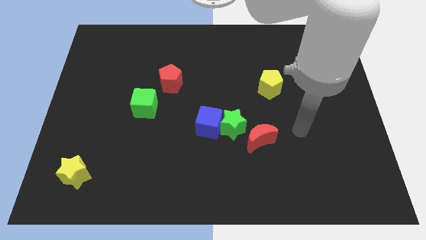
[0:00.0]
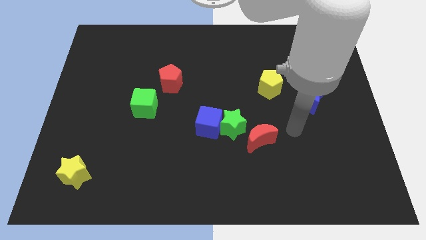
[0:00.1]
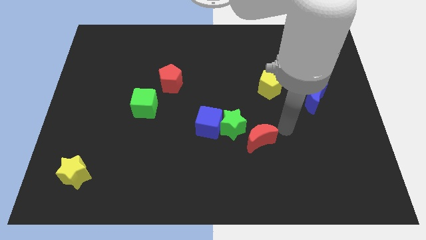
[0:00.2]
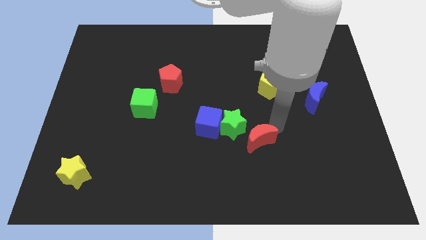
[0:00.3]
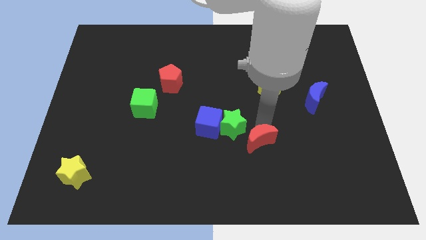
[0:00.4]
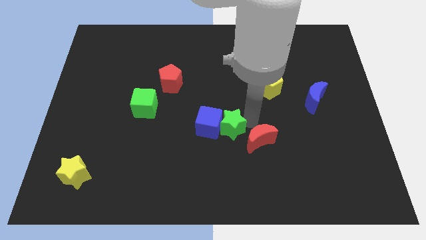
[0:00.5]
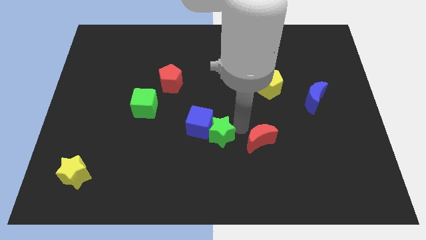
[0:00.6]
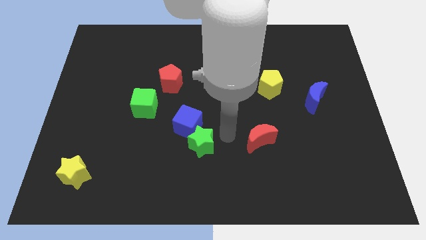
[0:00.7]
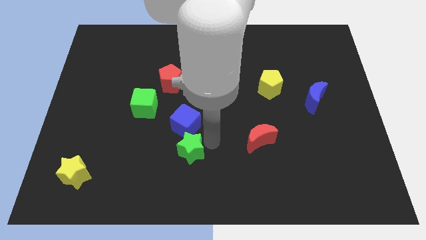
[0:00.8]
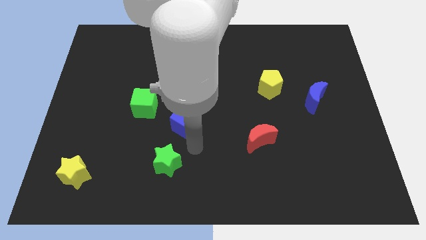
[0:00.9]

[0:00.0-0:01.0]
pull the blue cube apart from the green star

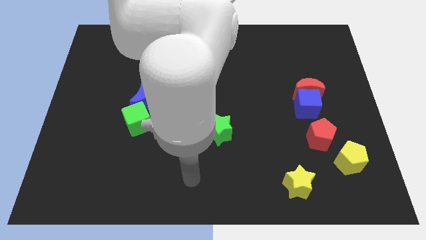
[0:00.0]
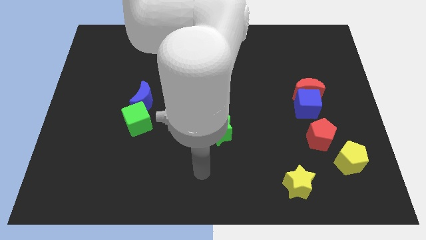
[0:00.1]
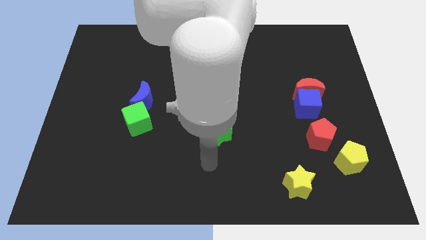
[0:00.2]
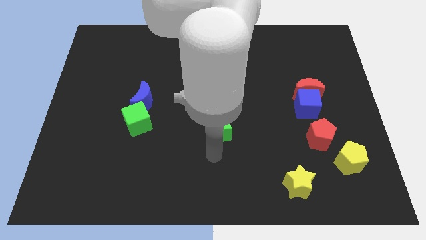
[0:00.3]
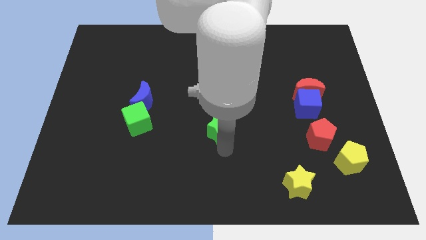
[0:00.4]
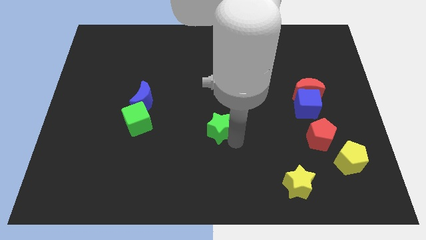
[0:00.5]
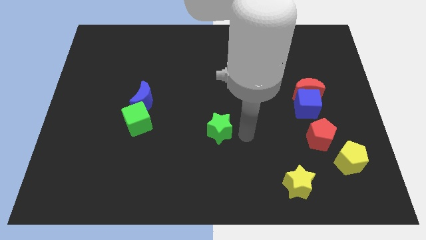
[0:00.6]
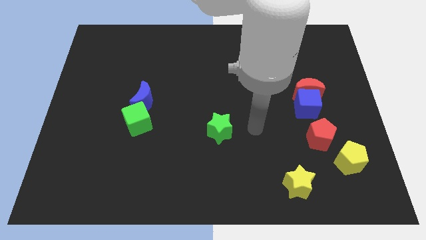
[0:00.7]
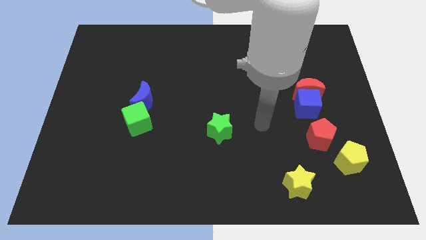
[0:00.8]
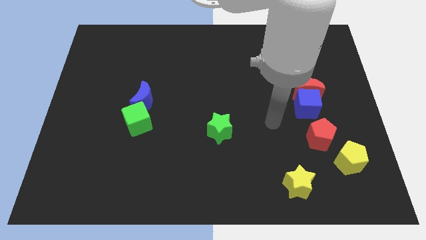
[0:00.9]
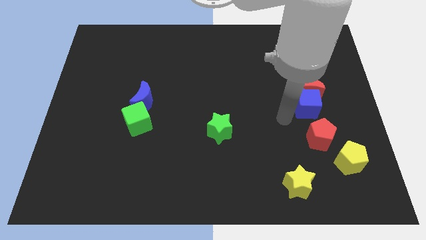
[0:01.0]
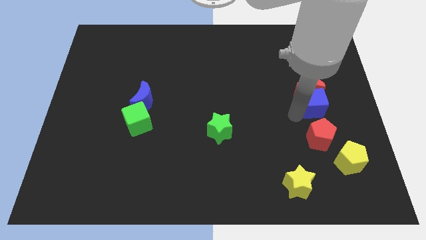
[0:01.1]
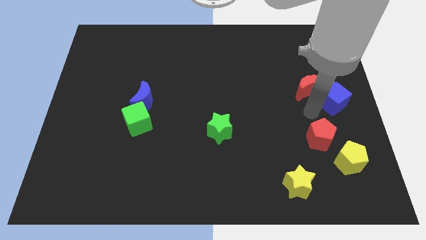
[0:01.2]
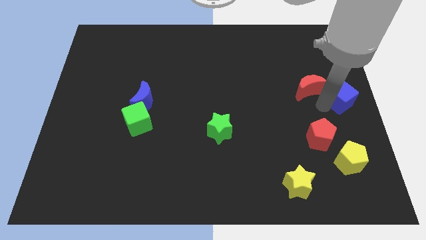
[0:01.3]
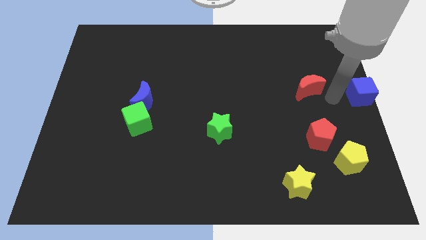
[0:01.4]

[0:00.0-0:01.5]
separate the red moon from the blue cube

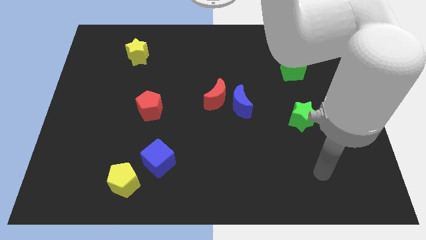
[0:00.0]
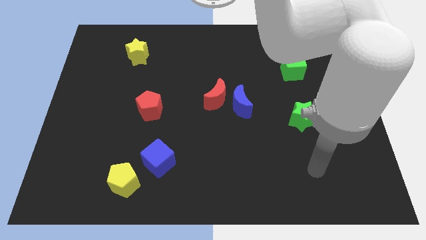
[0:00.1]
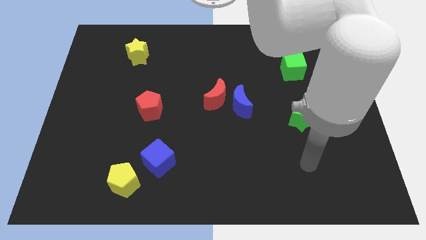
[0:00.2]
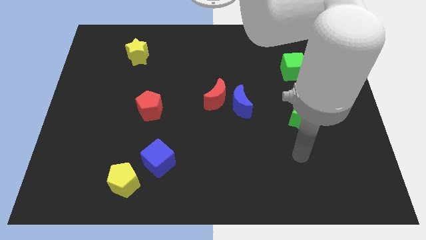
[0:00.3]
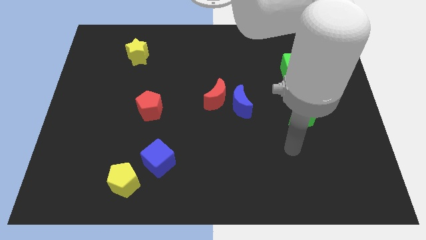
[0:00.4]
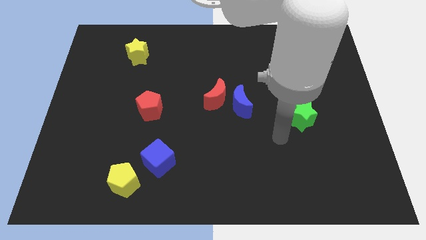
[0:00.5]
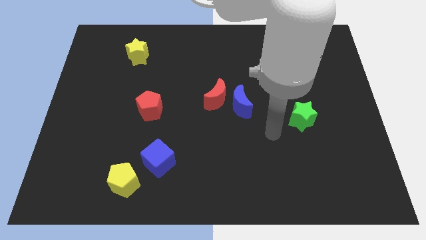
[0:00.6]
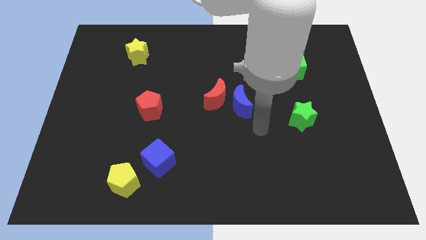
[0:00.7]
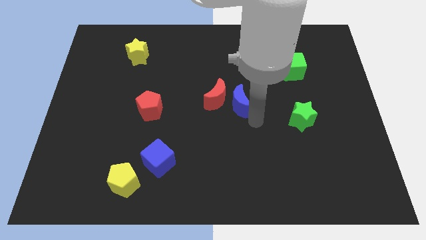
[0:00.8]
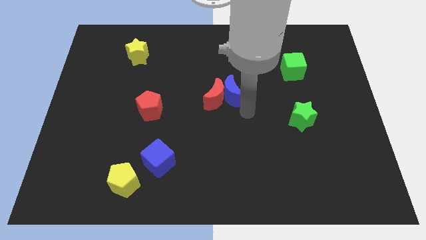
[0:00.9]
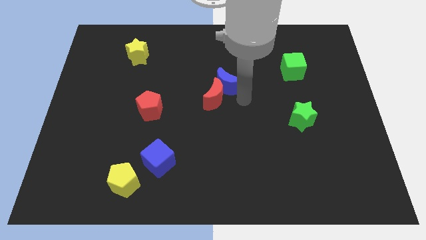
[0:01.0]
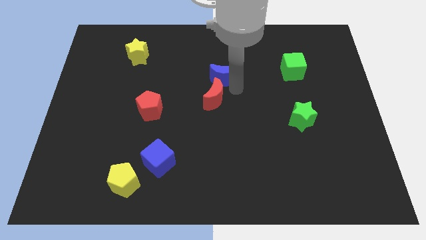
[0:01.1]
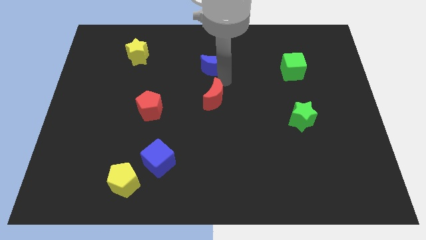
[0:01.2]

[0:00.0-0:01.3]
move the red moon away from the blue moon

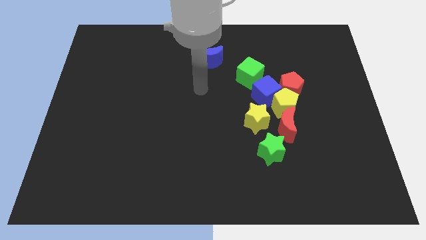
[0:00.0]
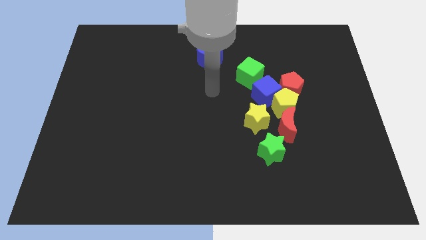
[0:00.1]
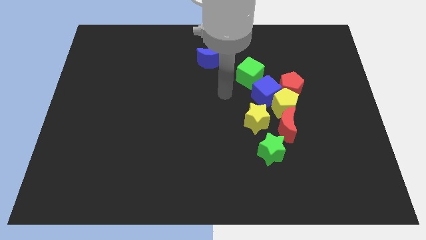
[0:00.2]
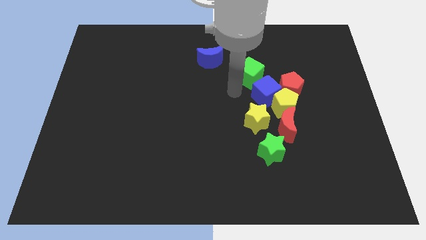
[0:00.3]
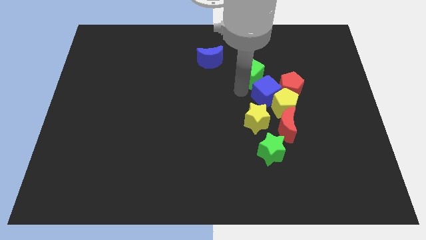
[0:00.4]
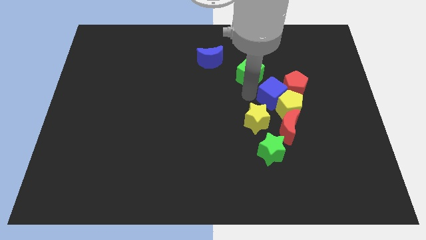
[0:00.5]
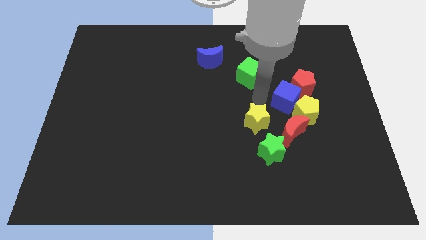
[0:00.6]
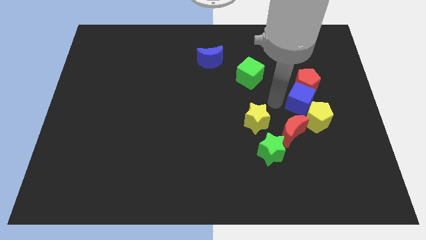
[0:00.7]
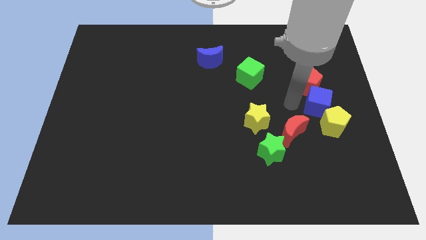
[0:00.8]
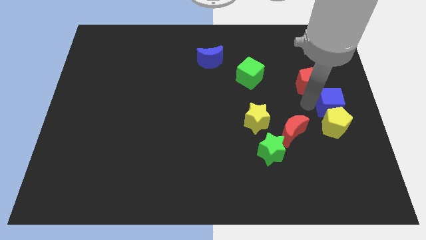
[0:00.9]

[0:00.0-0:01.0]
move the red pentagon away from the yellow pentagon and blue cube

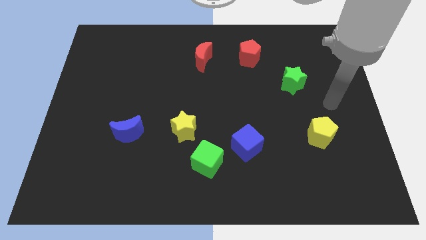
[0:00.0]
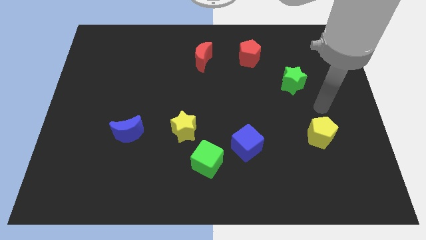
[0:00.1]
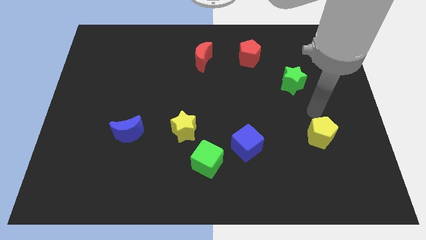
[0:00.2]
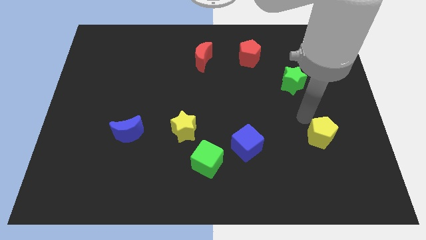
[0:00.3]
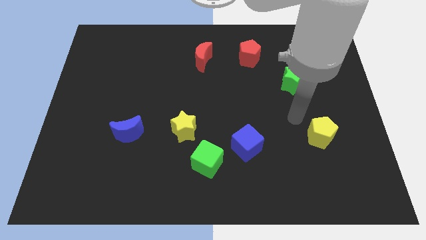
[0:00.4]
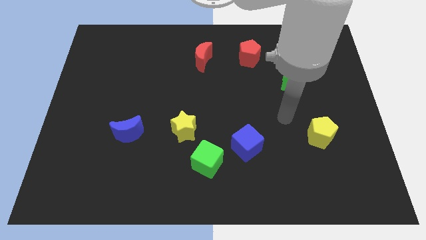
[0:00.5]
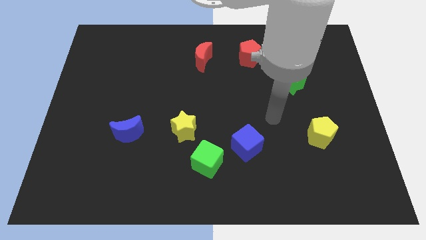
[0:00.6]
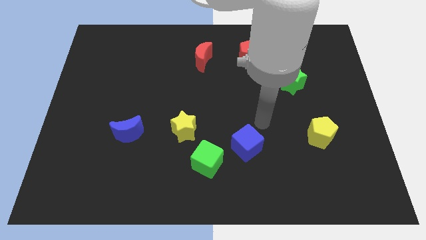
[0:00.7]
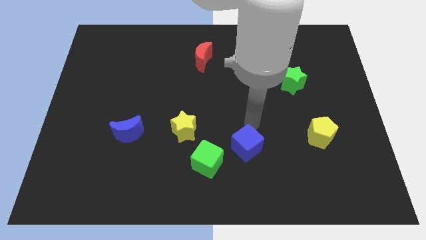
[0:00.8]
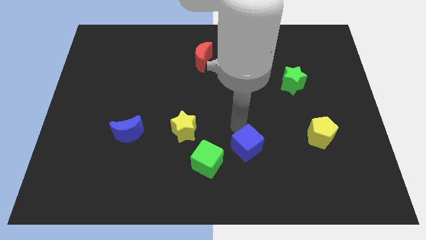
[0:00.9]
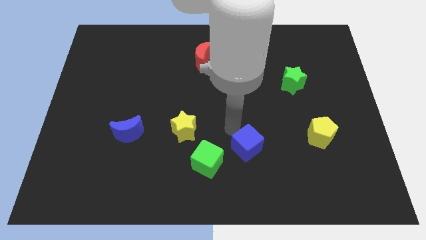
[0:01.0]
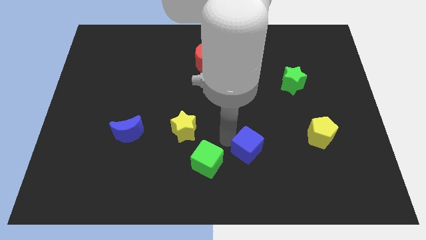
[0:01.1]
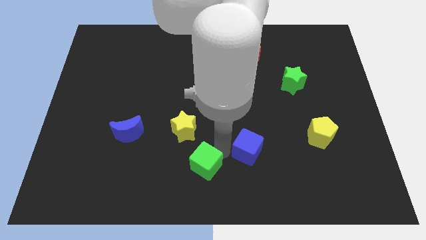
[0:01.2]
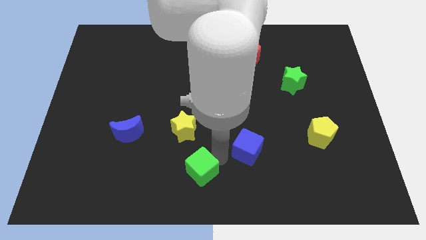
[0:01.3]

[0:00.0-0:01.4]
separate the blue cube from the green cube

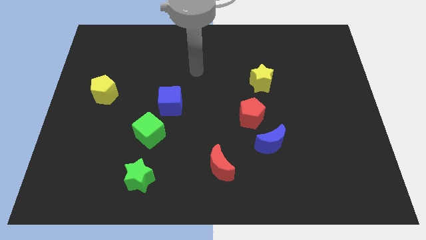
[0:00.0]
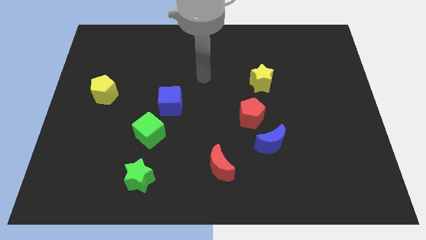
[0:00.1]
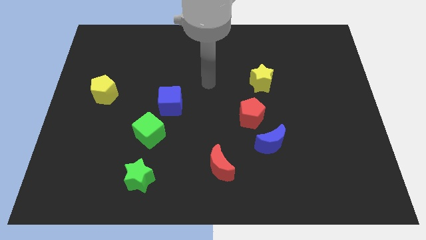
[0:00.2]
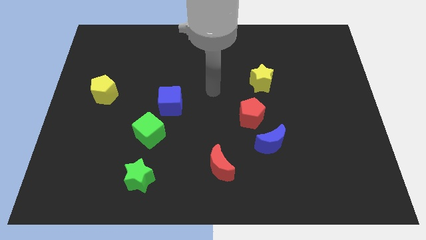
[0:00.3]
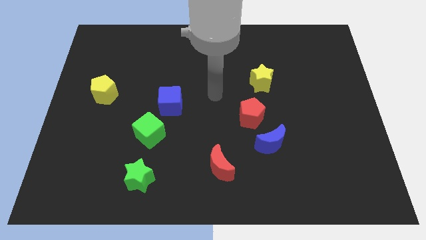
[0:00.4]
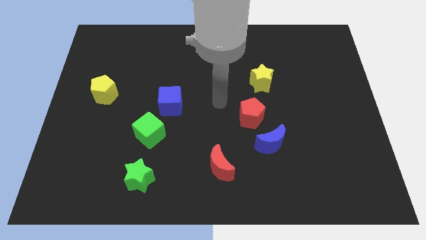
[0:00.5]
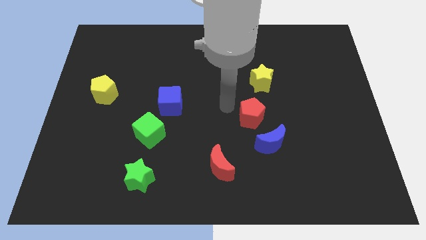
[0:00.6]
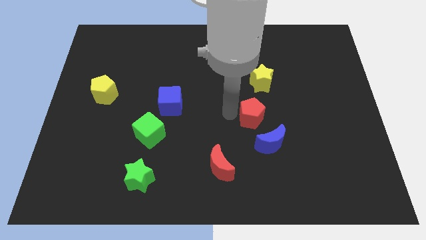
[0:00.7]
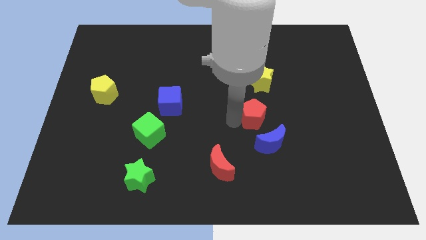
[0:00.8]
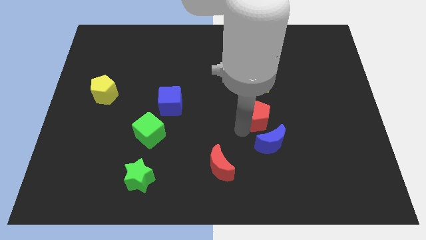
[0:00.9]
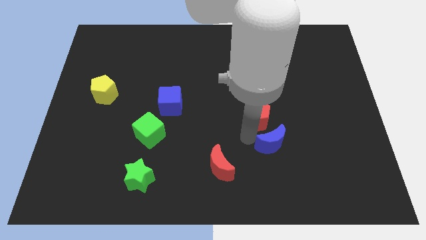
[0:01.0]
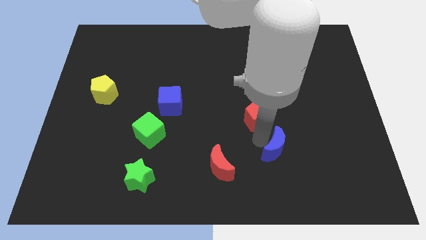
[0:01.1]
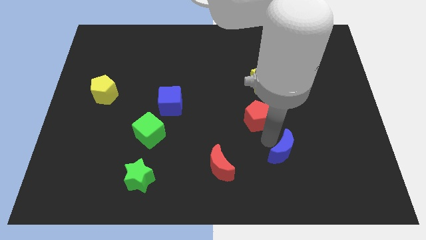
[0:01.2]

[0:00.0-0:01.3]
pull the red pentagon apart from the blue moon

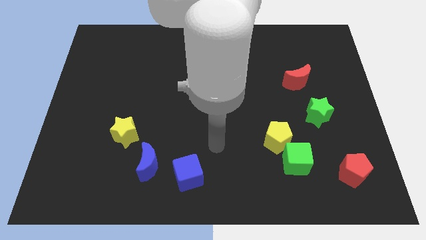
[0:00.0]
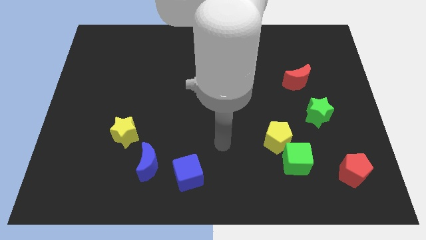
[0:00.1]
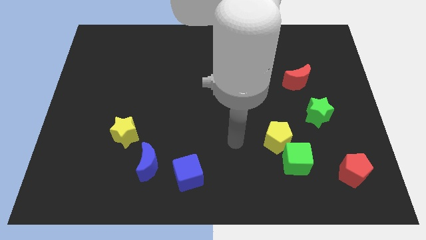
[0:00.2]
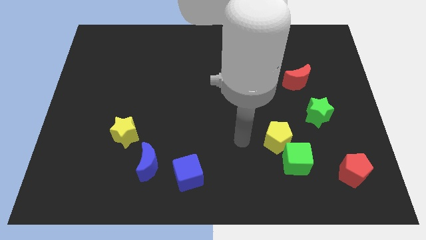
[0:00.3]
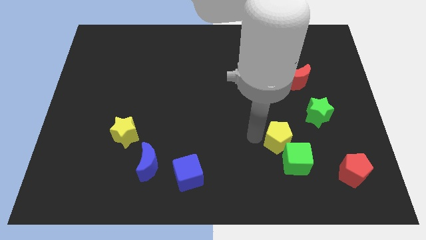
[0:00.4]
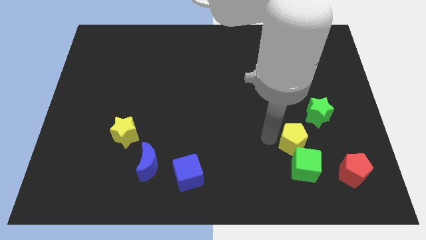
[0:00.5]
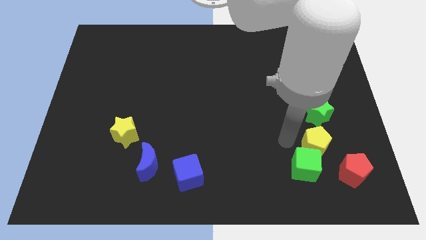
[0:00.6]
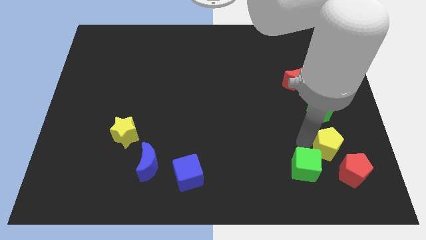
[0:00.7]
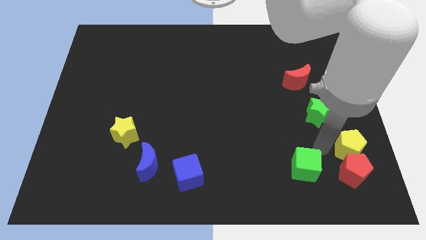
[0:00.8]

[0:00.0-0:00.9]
pull the green cube apart from the yellow pentagon

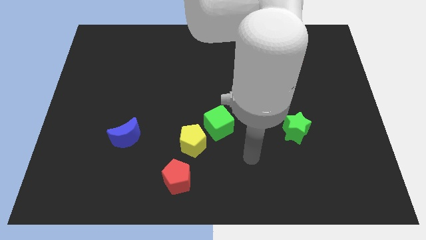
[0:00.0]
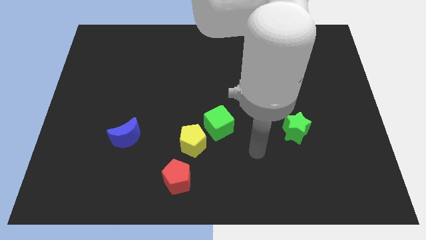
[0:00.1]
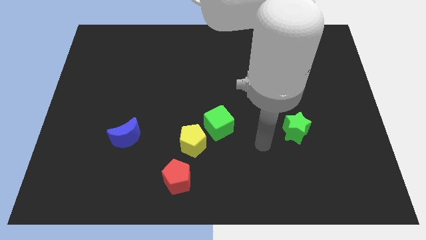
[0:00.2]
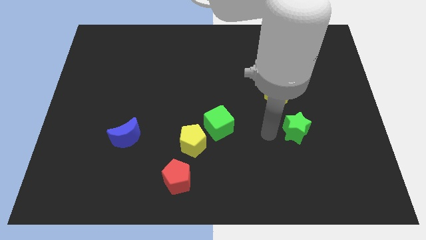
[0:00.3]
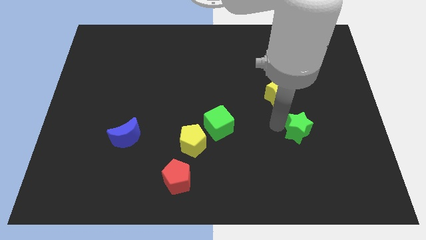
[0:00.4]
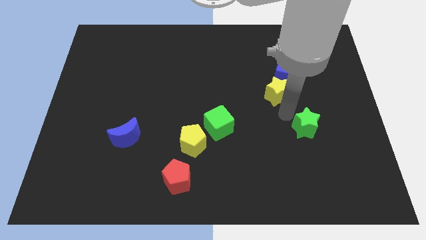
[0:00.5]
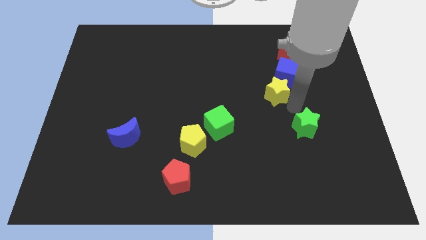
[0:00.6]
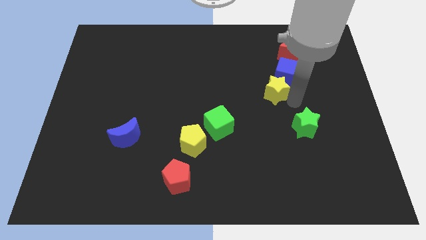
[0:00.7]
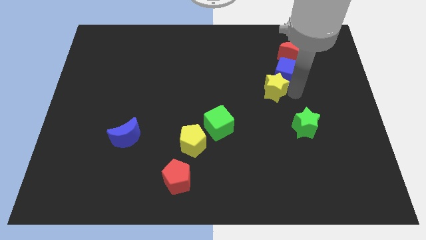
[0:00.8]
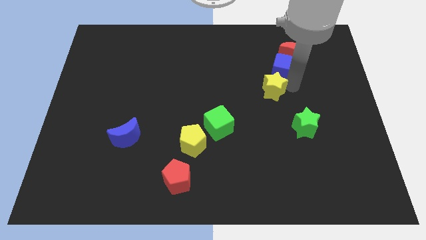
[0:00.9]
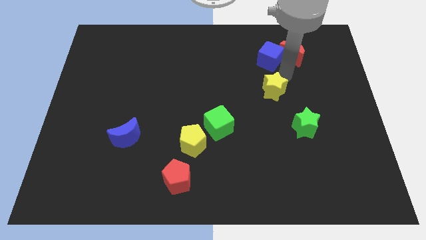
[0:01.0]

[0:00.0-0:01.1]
pull the yellow star apart from the blue cube
